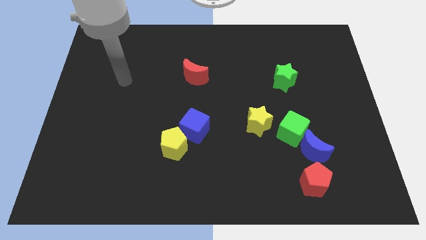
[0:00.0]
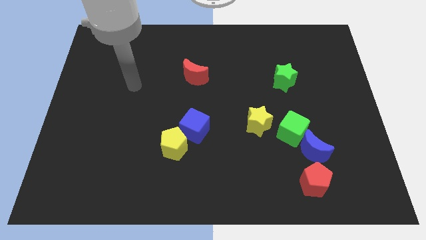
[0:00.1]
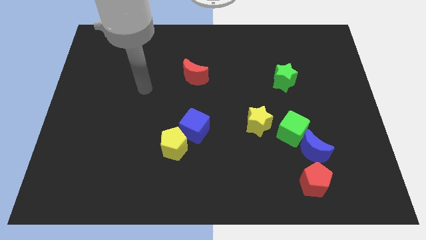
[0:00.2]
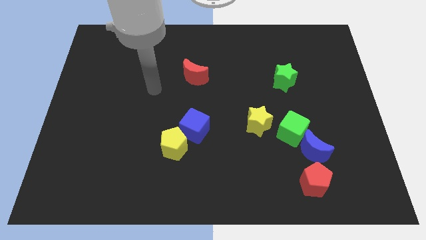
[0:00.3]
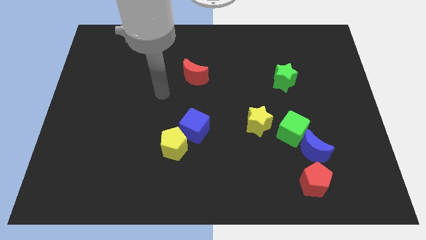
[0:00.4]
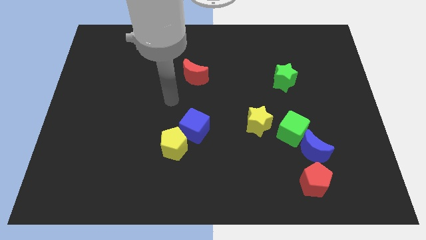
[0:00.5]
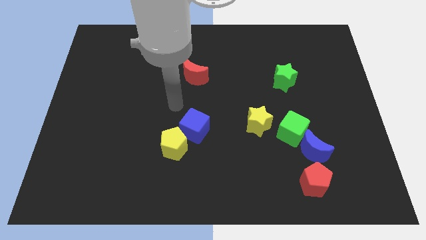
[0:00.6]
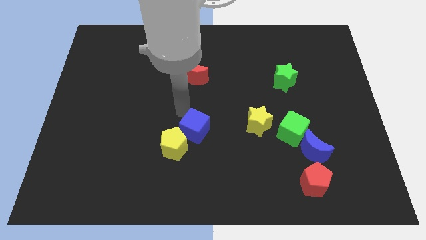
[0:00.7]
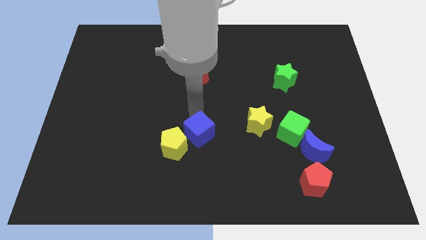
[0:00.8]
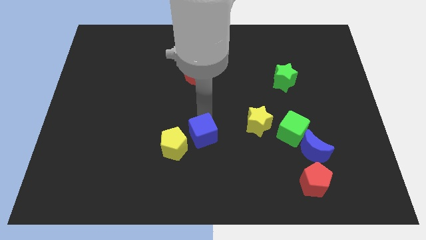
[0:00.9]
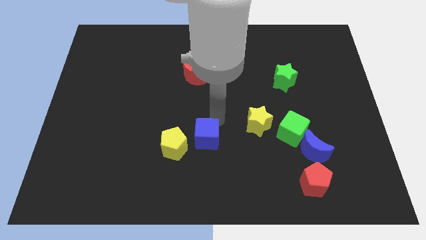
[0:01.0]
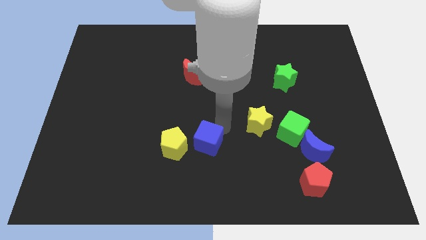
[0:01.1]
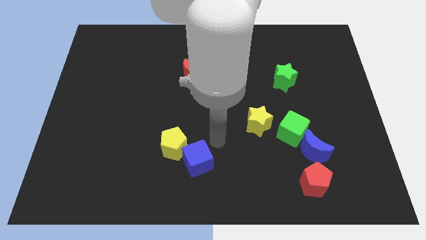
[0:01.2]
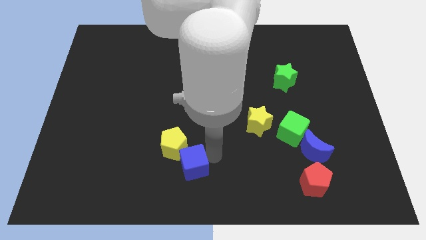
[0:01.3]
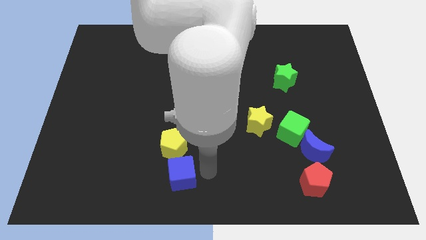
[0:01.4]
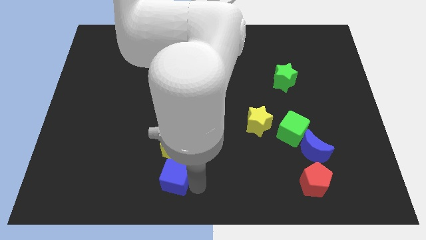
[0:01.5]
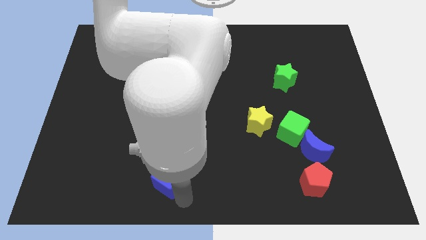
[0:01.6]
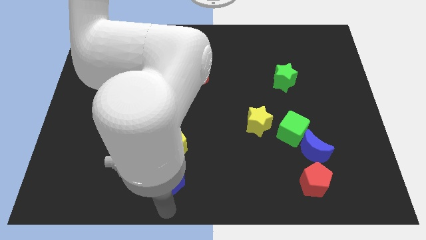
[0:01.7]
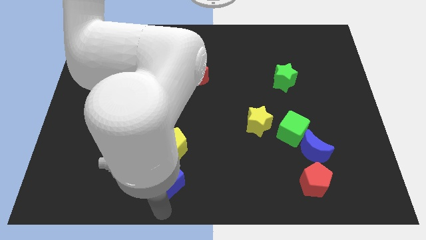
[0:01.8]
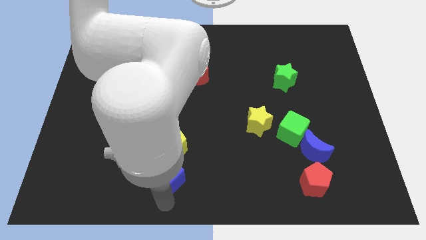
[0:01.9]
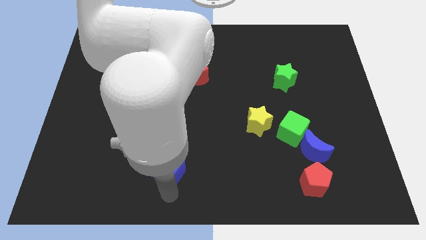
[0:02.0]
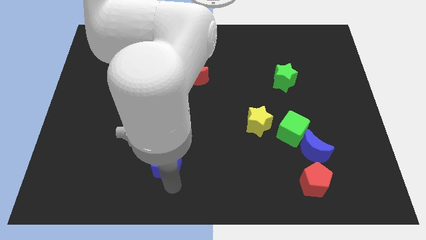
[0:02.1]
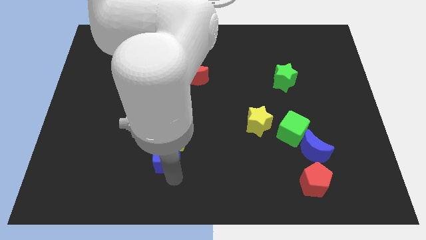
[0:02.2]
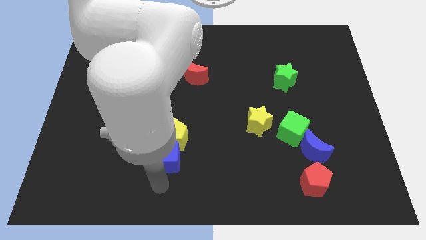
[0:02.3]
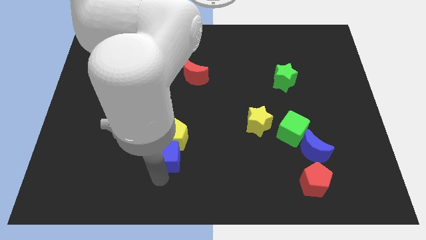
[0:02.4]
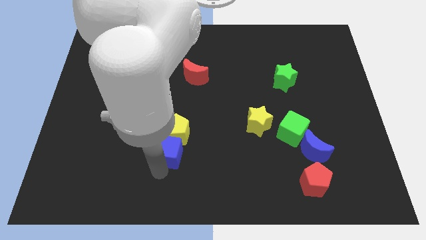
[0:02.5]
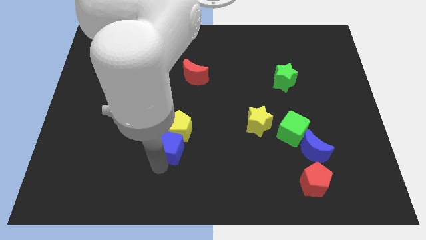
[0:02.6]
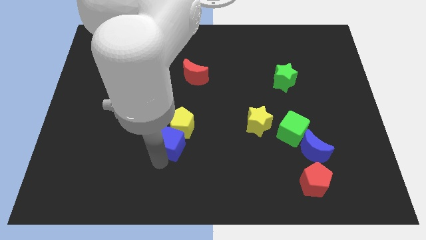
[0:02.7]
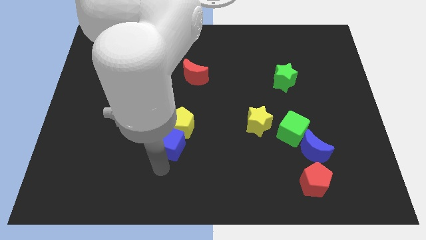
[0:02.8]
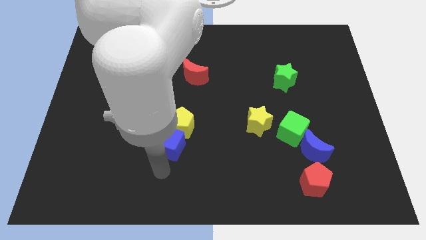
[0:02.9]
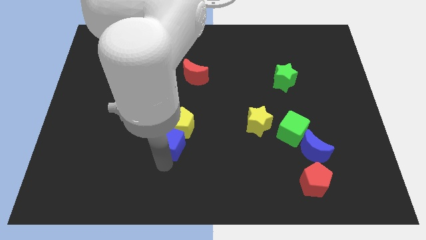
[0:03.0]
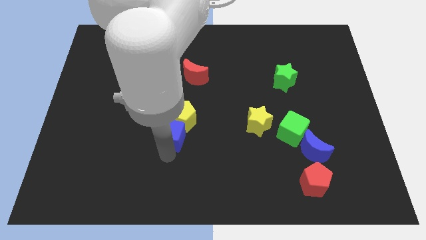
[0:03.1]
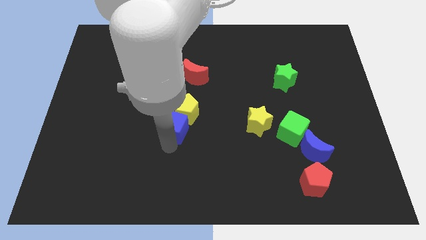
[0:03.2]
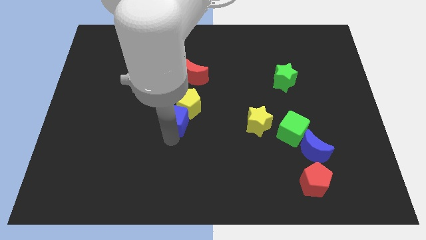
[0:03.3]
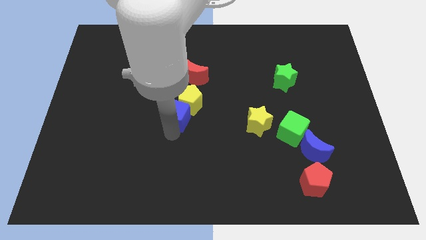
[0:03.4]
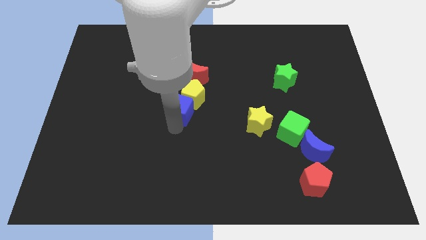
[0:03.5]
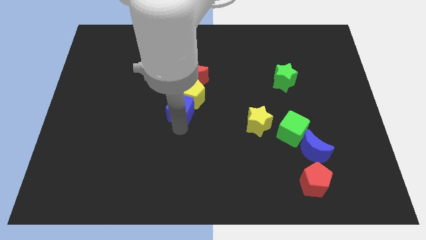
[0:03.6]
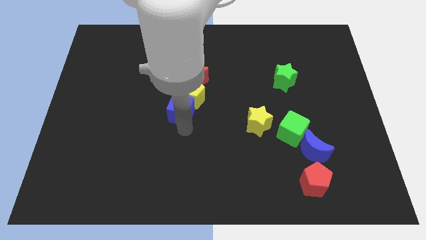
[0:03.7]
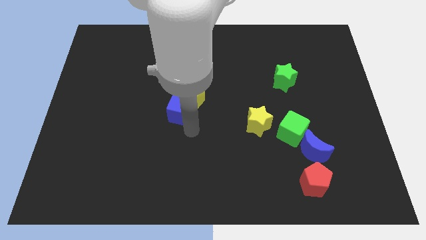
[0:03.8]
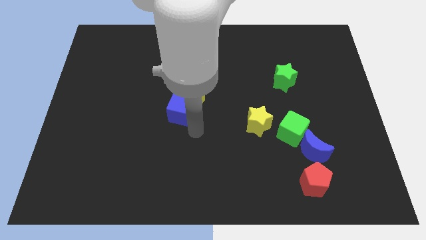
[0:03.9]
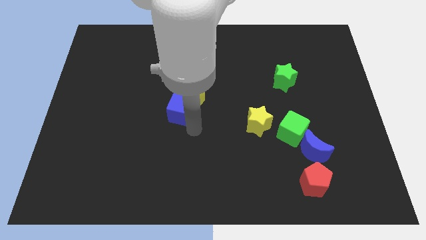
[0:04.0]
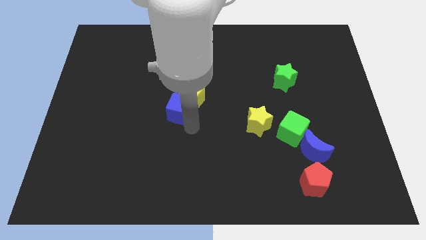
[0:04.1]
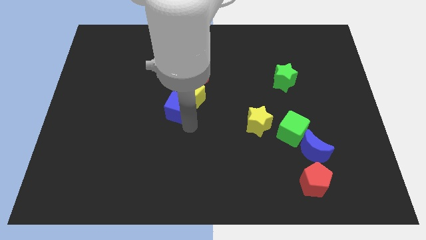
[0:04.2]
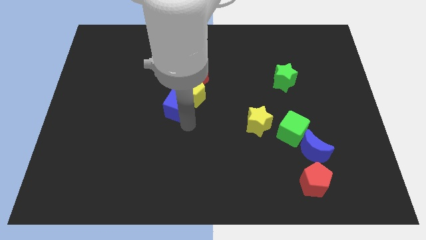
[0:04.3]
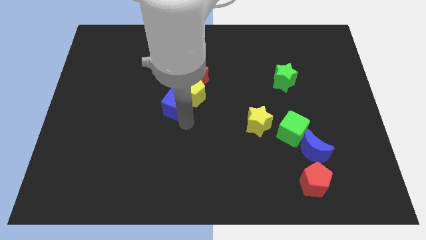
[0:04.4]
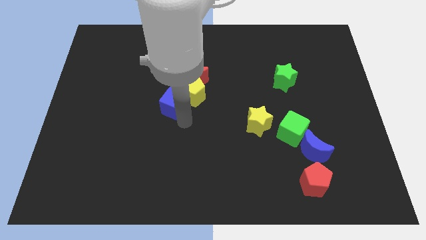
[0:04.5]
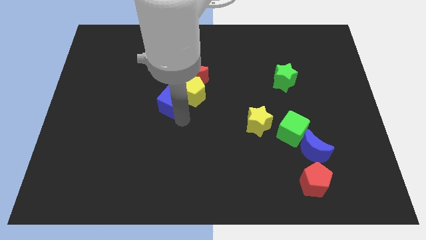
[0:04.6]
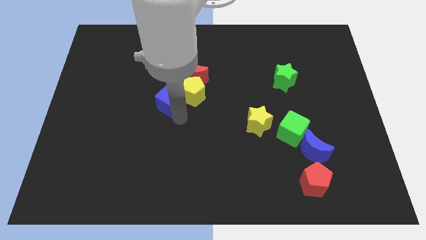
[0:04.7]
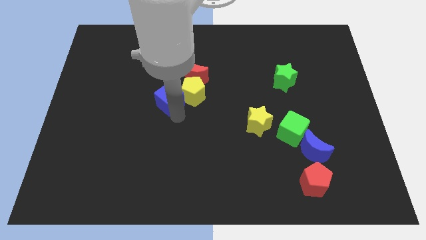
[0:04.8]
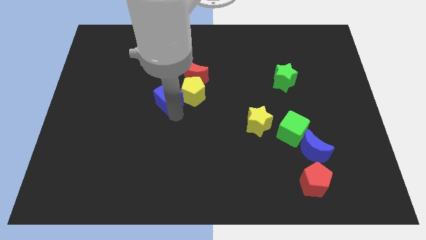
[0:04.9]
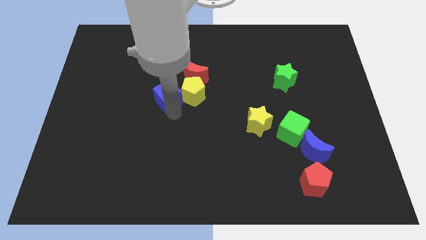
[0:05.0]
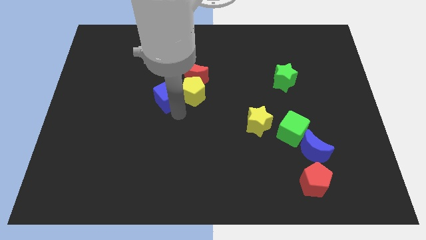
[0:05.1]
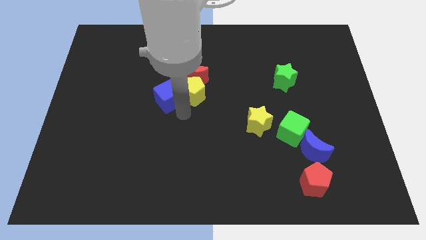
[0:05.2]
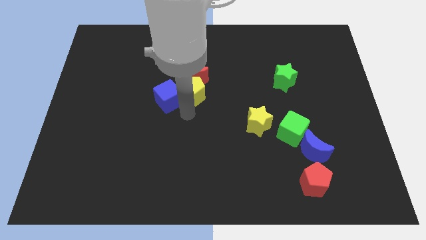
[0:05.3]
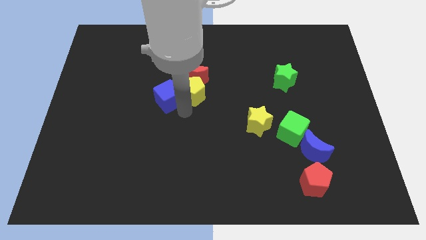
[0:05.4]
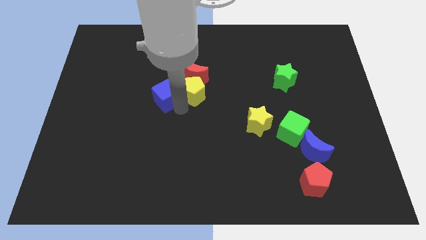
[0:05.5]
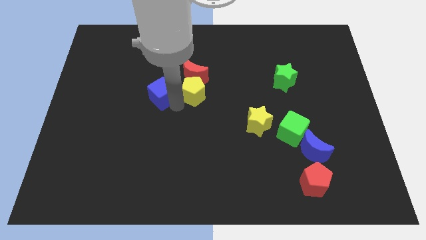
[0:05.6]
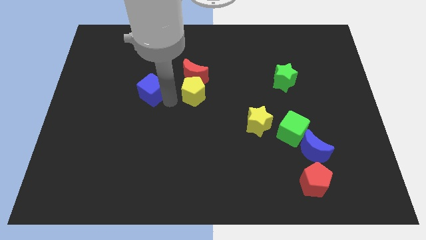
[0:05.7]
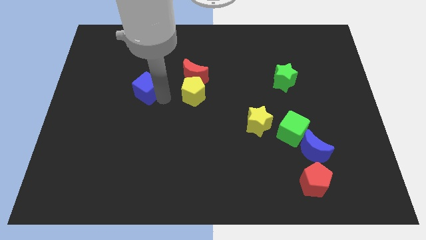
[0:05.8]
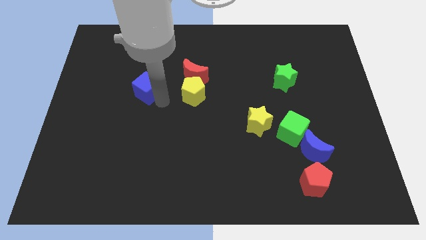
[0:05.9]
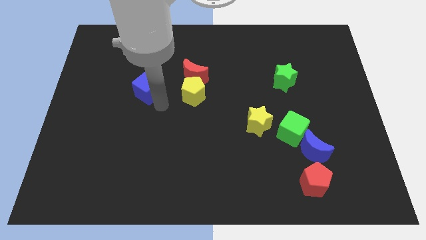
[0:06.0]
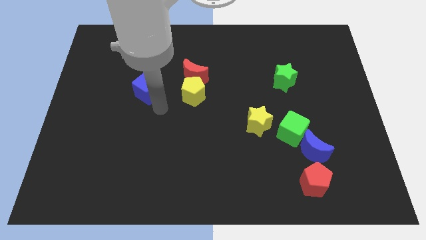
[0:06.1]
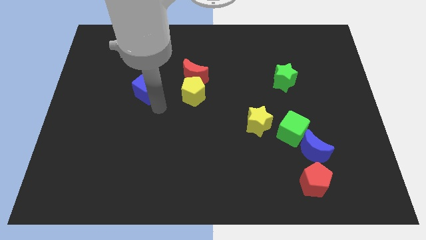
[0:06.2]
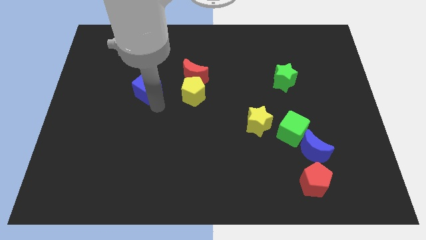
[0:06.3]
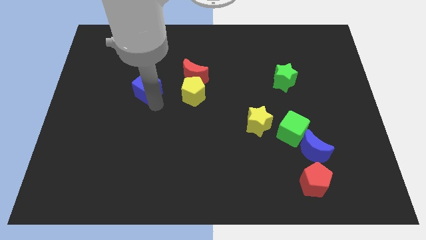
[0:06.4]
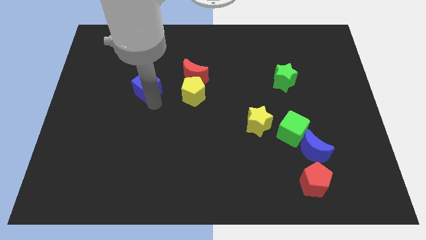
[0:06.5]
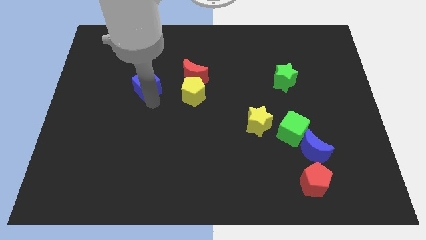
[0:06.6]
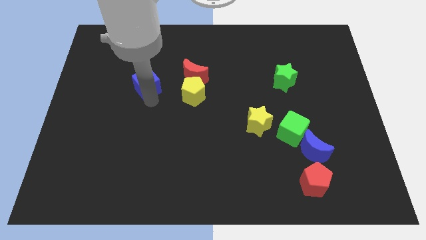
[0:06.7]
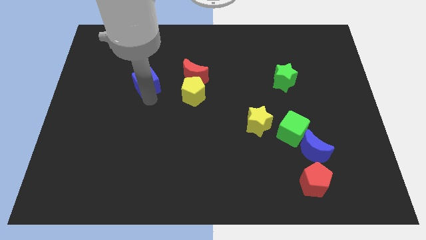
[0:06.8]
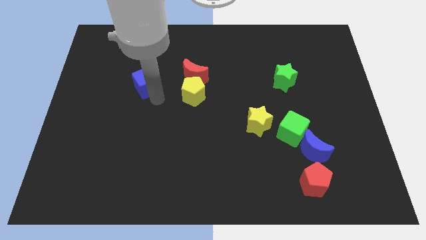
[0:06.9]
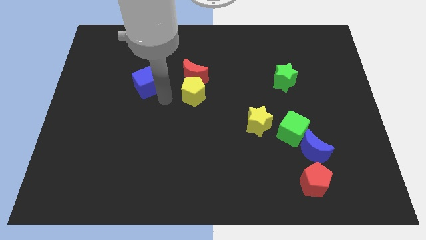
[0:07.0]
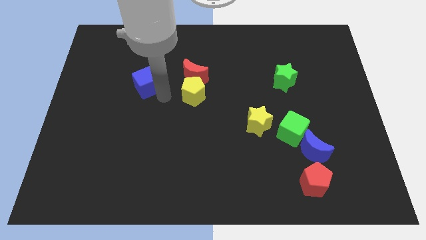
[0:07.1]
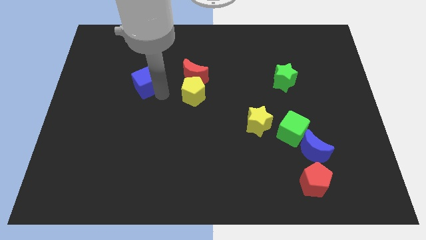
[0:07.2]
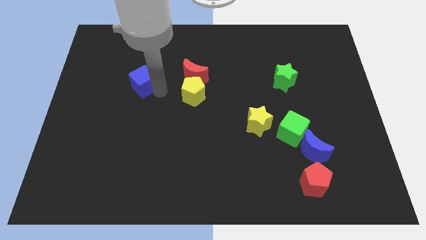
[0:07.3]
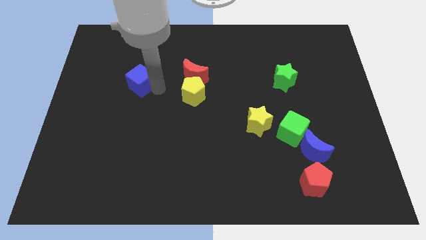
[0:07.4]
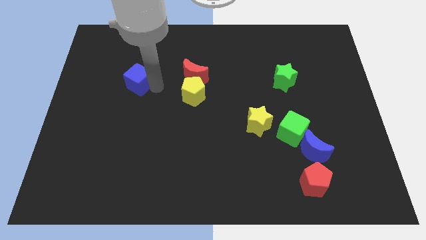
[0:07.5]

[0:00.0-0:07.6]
move the blue cube upwards and to the left

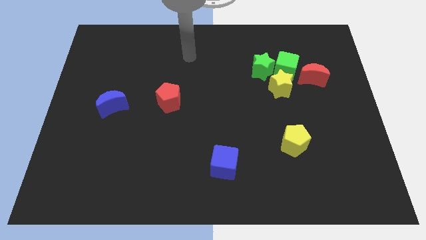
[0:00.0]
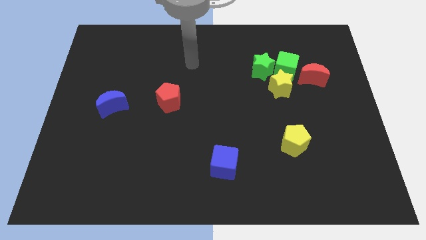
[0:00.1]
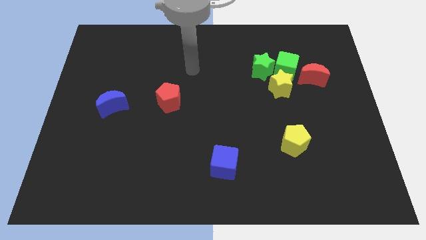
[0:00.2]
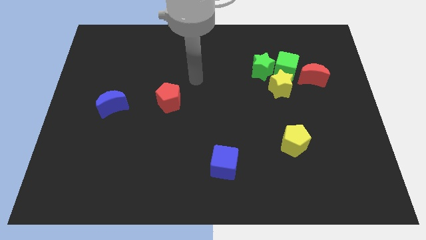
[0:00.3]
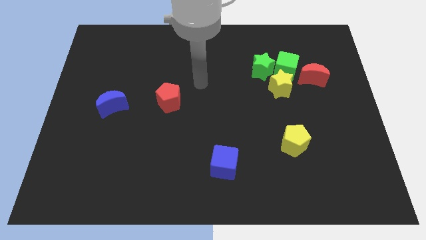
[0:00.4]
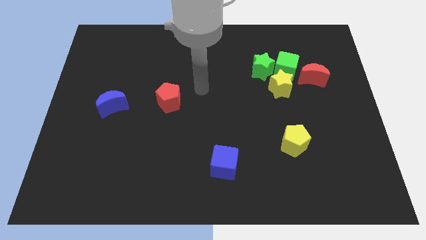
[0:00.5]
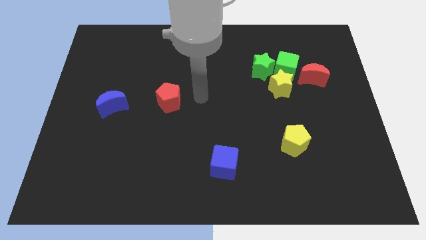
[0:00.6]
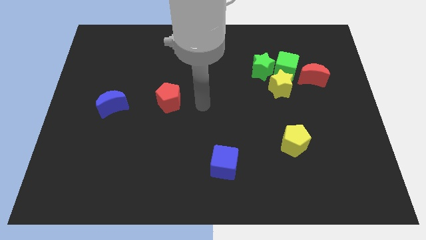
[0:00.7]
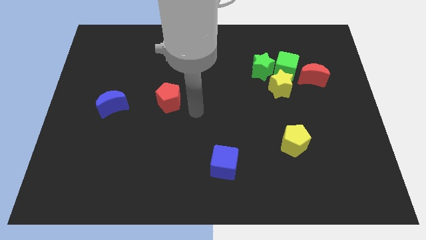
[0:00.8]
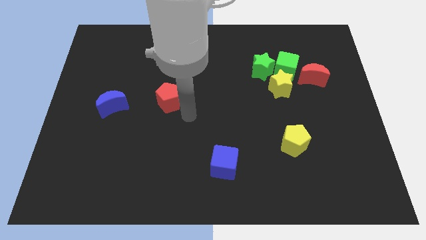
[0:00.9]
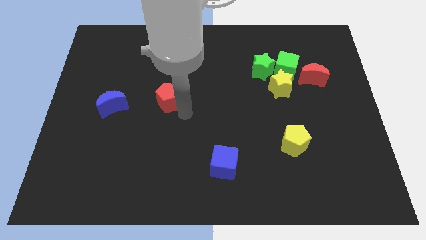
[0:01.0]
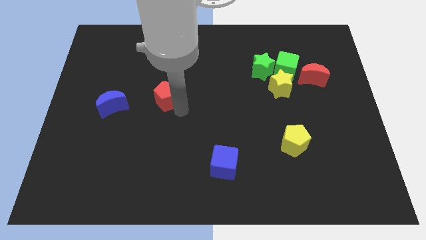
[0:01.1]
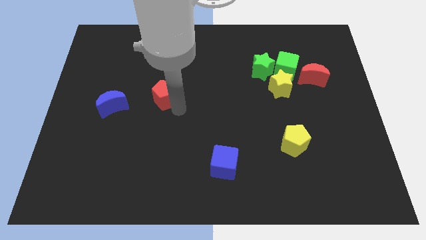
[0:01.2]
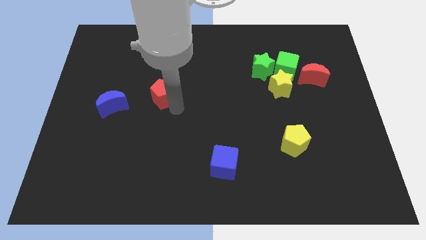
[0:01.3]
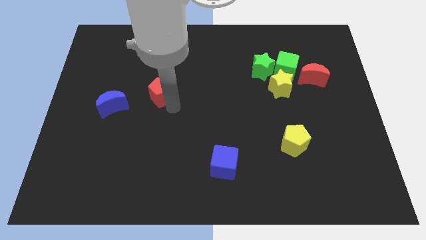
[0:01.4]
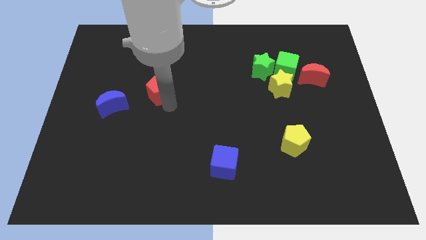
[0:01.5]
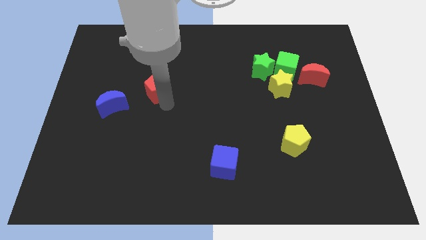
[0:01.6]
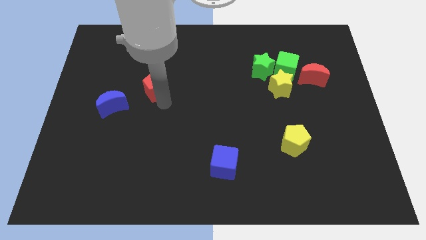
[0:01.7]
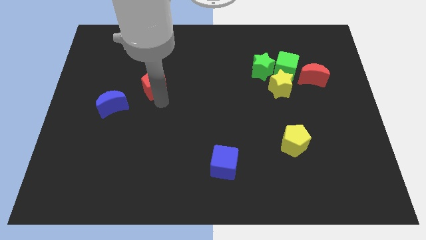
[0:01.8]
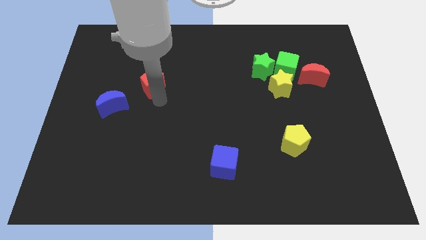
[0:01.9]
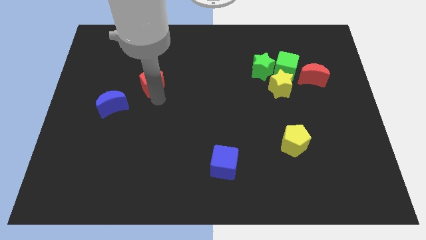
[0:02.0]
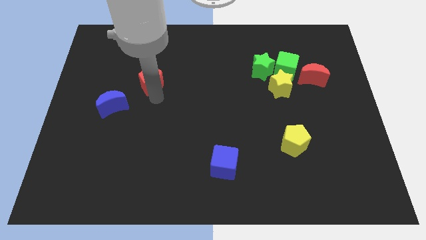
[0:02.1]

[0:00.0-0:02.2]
move the red pentagon upwards and then left a bit
